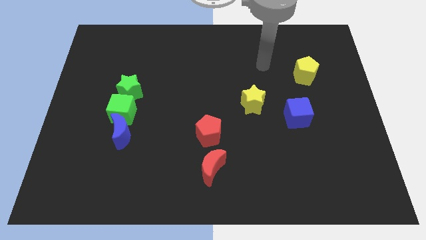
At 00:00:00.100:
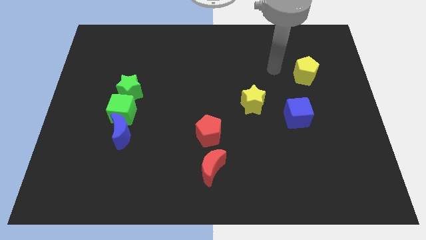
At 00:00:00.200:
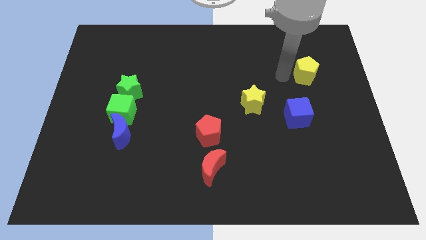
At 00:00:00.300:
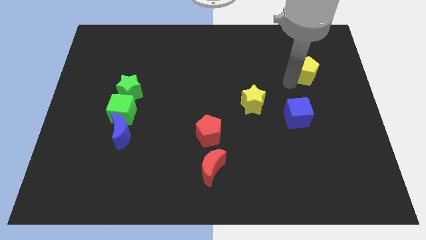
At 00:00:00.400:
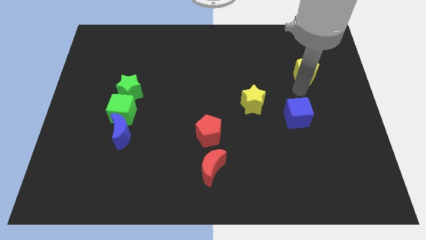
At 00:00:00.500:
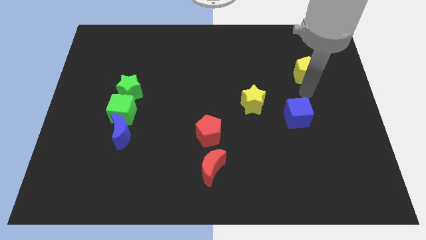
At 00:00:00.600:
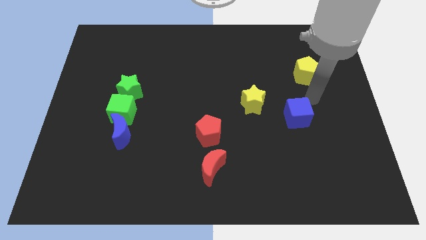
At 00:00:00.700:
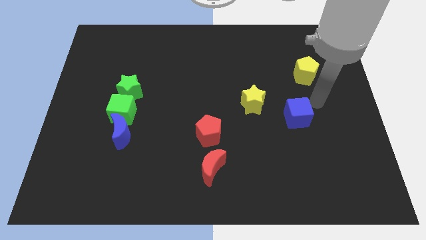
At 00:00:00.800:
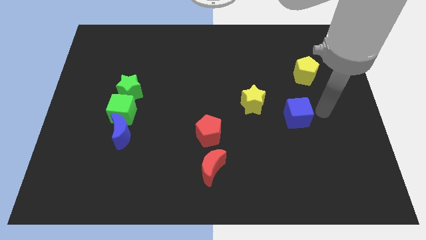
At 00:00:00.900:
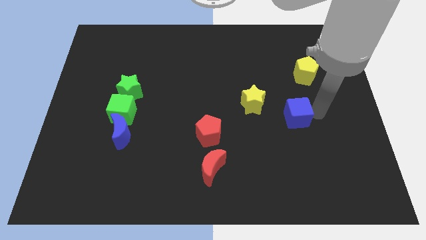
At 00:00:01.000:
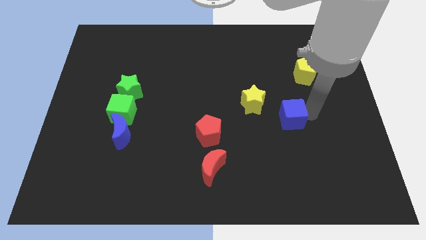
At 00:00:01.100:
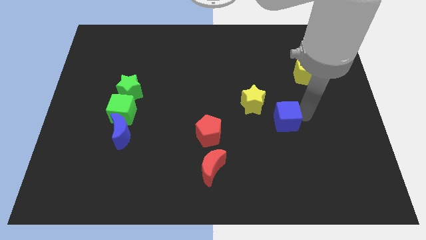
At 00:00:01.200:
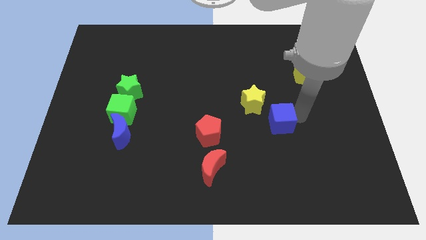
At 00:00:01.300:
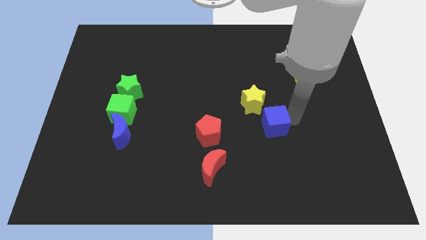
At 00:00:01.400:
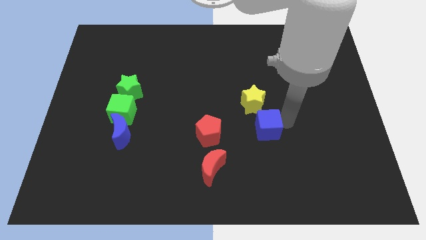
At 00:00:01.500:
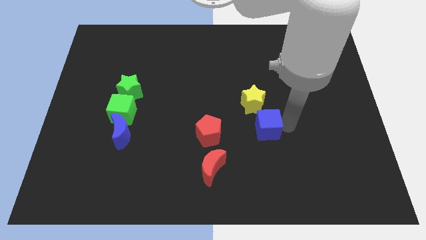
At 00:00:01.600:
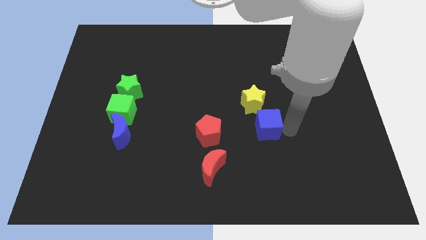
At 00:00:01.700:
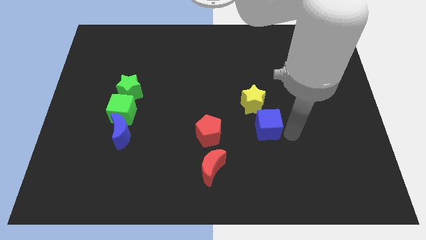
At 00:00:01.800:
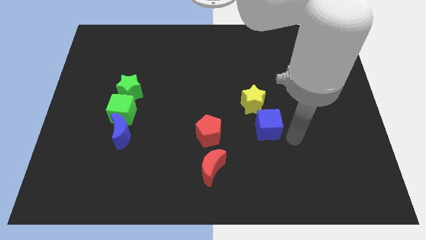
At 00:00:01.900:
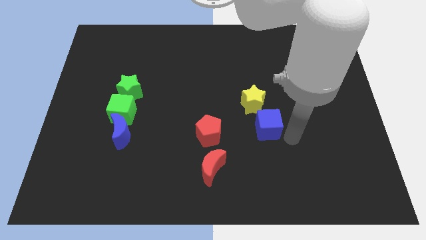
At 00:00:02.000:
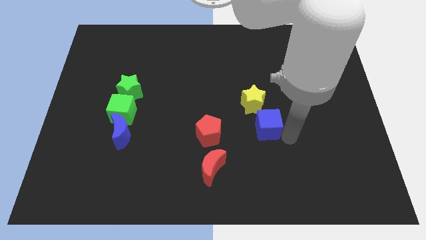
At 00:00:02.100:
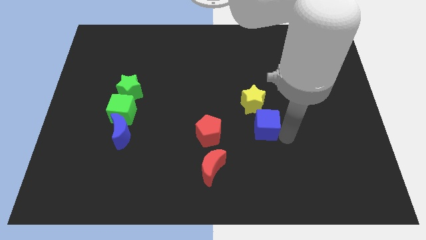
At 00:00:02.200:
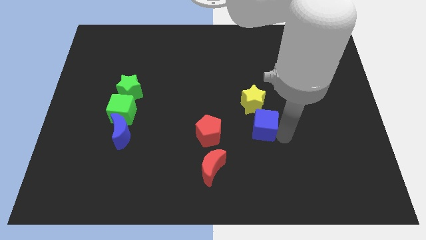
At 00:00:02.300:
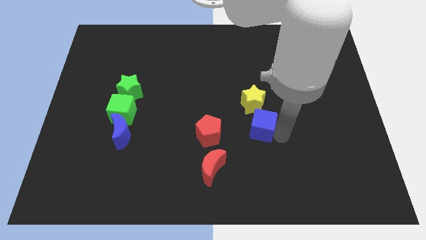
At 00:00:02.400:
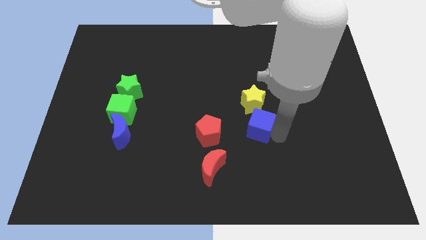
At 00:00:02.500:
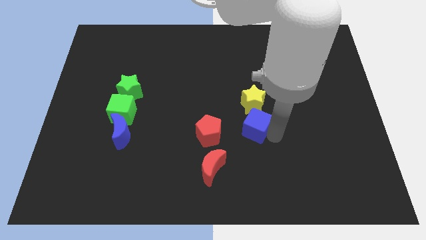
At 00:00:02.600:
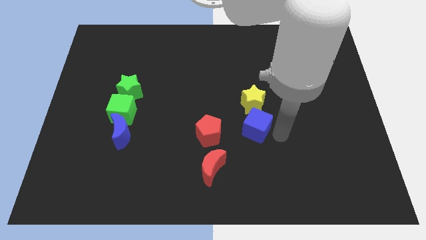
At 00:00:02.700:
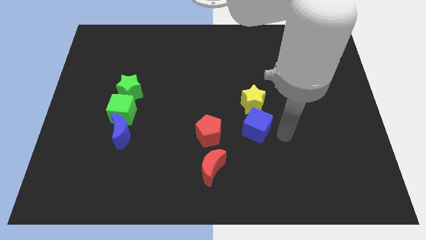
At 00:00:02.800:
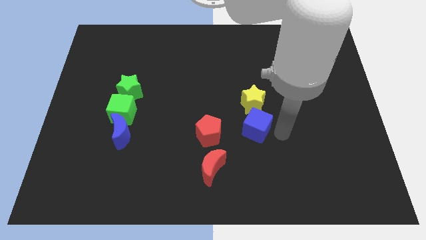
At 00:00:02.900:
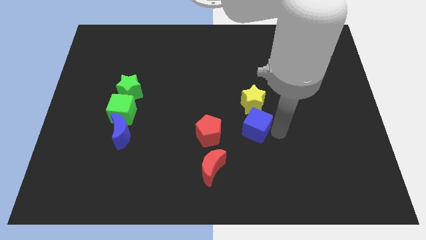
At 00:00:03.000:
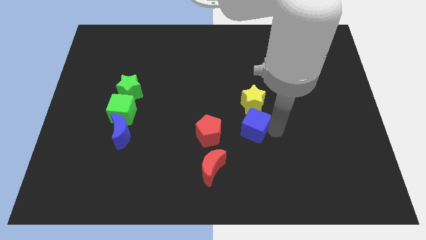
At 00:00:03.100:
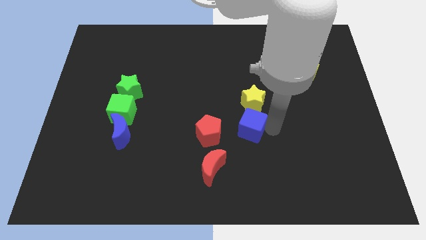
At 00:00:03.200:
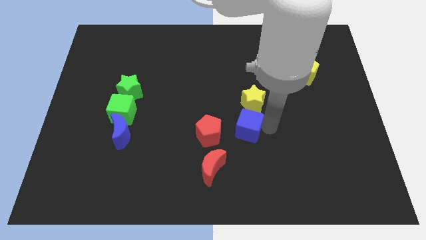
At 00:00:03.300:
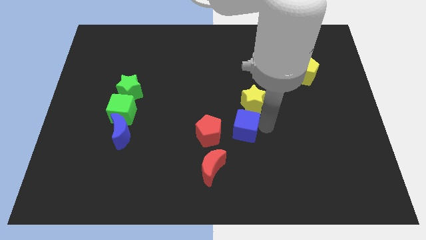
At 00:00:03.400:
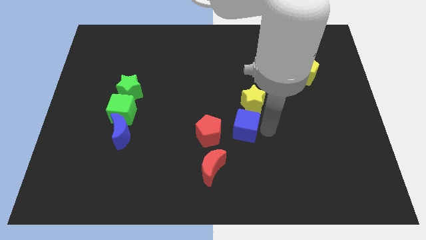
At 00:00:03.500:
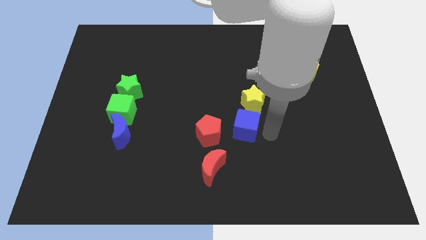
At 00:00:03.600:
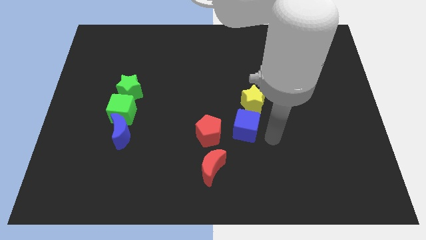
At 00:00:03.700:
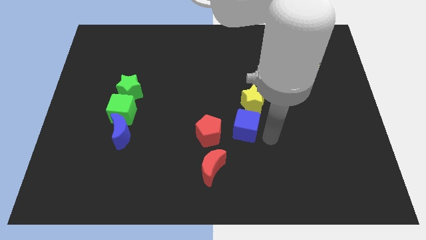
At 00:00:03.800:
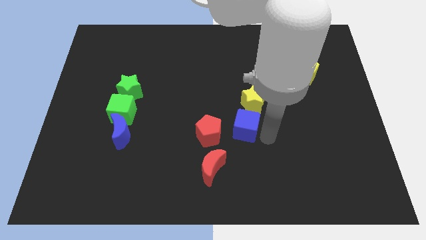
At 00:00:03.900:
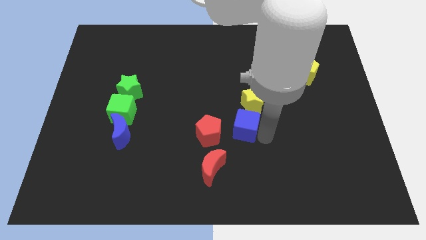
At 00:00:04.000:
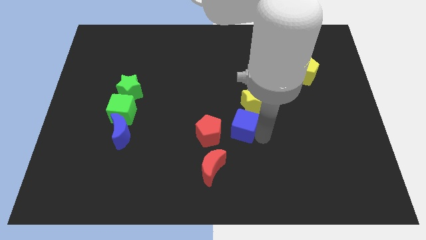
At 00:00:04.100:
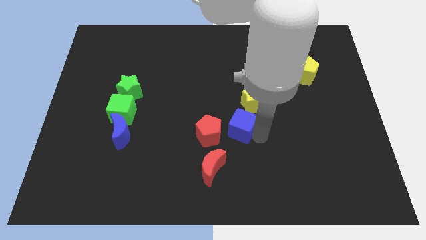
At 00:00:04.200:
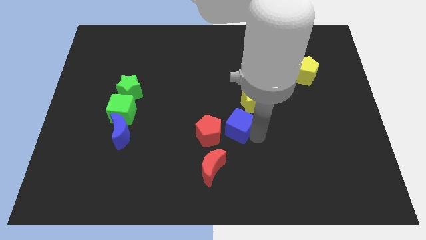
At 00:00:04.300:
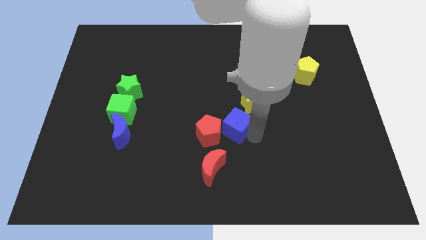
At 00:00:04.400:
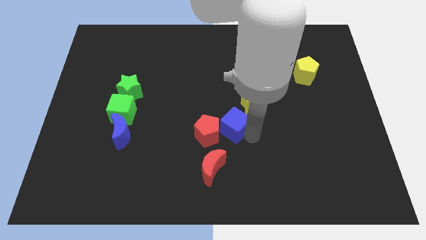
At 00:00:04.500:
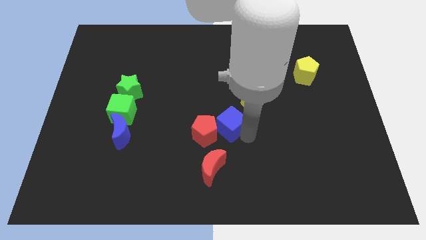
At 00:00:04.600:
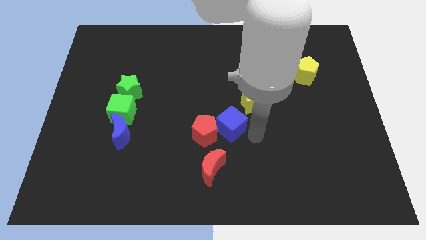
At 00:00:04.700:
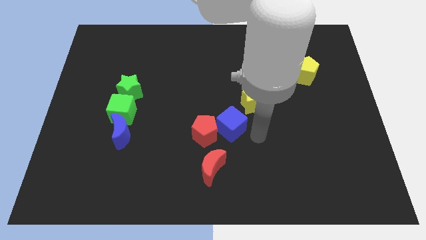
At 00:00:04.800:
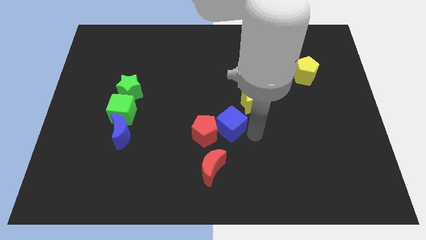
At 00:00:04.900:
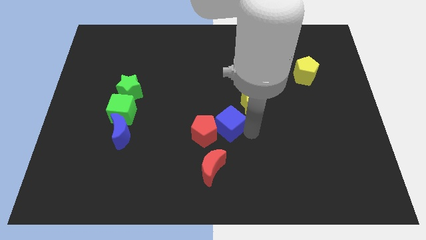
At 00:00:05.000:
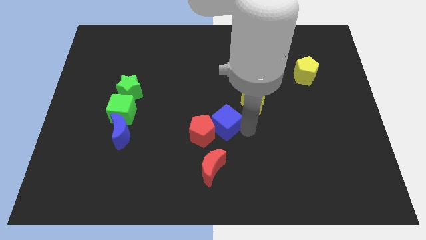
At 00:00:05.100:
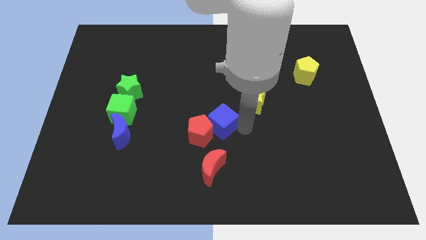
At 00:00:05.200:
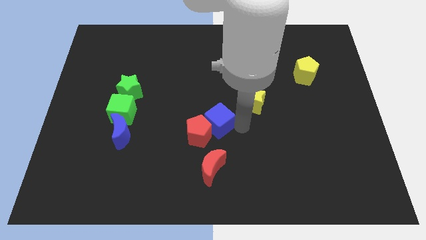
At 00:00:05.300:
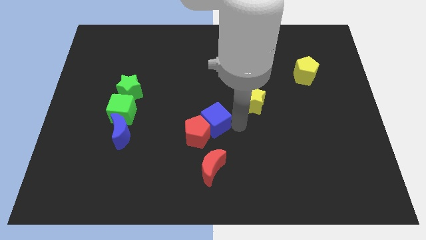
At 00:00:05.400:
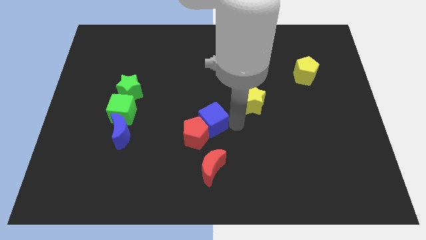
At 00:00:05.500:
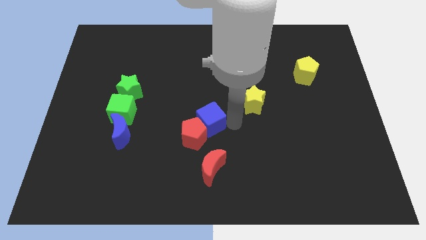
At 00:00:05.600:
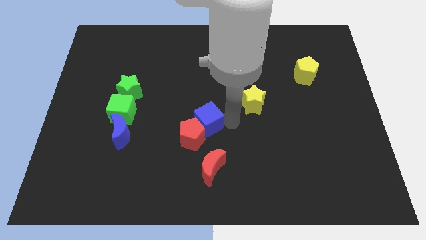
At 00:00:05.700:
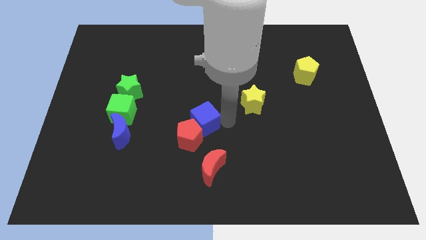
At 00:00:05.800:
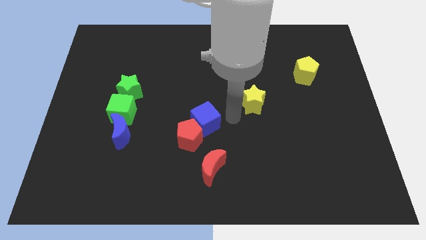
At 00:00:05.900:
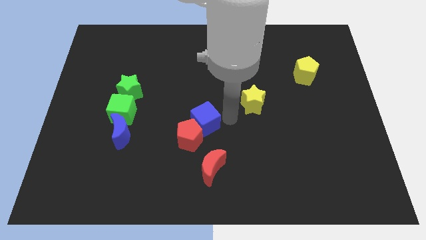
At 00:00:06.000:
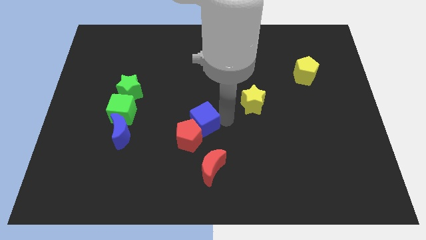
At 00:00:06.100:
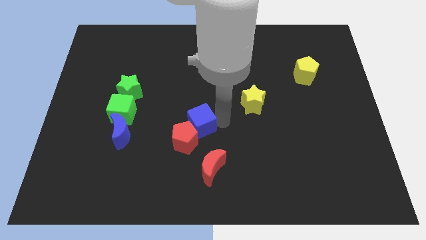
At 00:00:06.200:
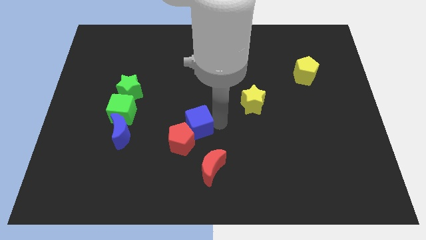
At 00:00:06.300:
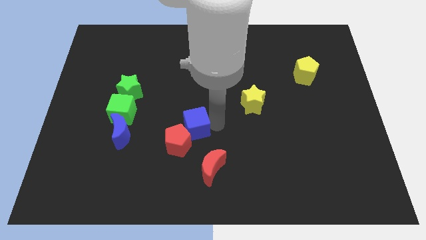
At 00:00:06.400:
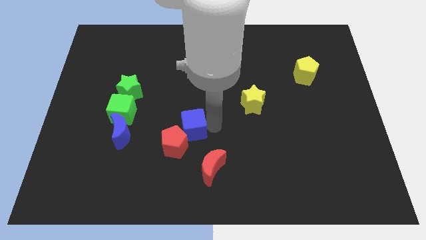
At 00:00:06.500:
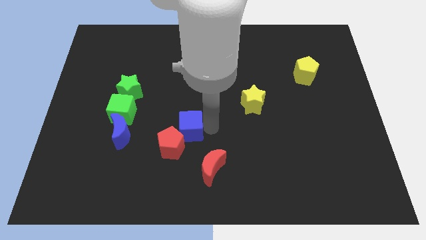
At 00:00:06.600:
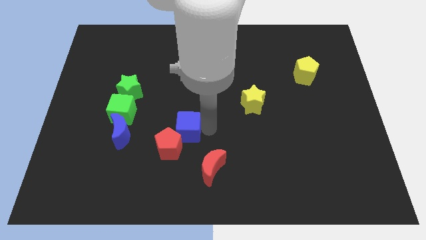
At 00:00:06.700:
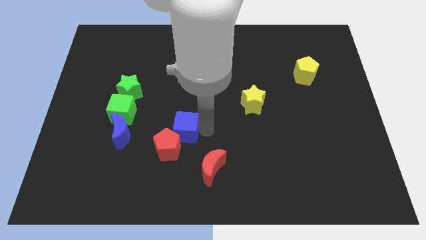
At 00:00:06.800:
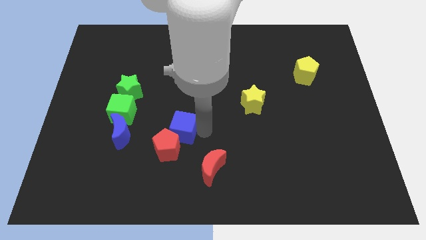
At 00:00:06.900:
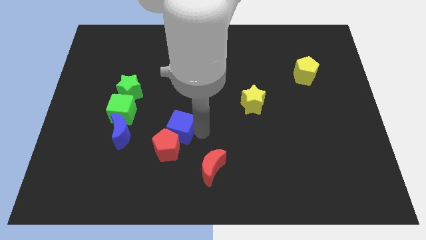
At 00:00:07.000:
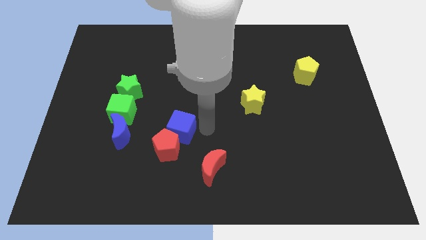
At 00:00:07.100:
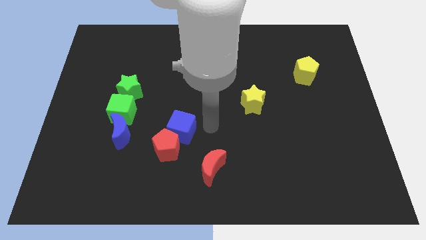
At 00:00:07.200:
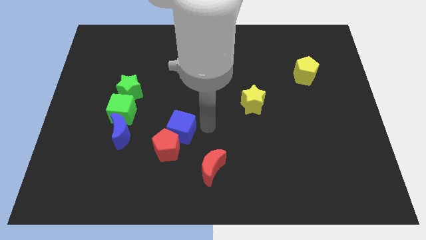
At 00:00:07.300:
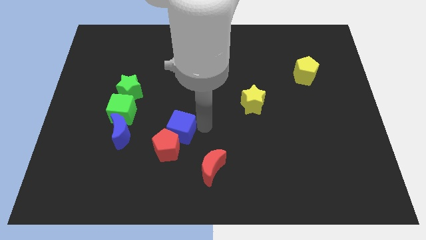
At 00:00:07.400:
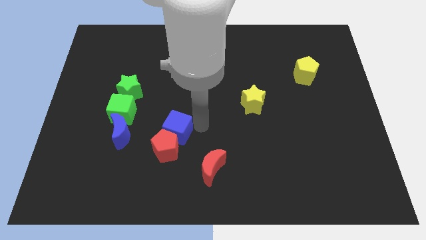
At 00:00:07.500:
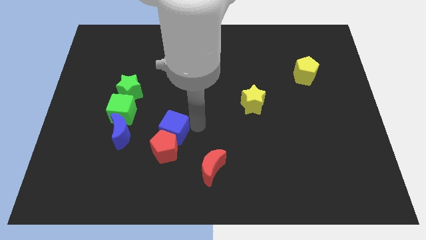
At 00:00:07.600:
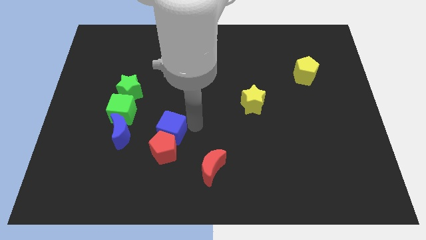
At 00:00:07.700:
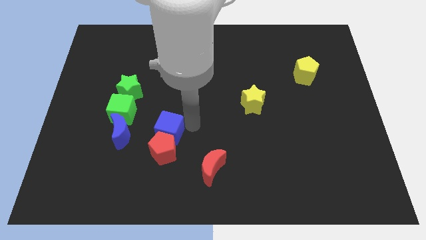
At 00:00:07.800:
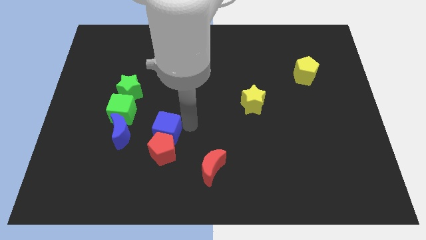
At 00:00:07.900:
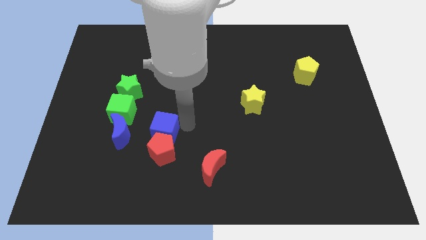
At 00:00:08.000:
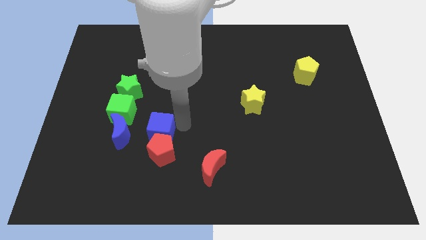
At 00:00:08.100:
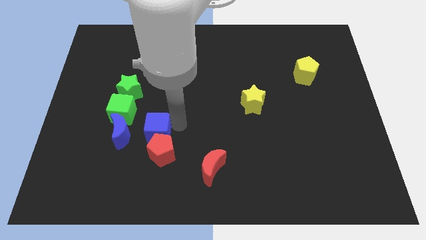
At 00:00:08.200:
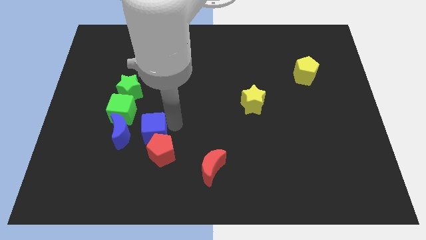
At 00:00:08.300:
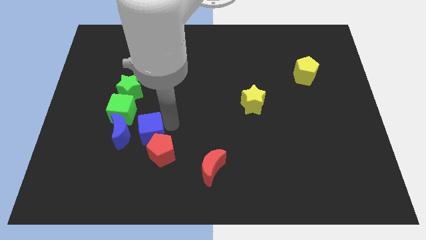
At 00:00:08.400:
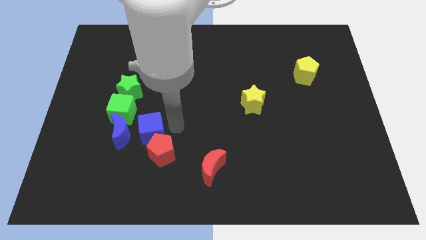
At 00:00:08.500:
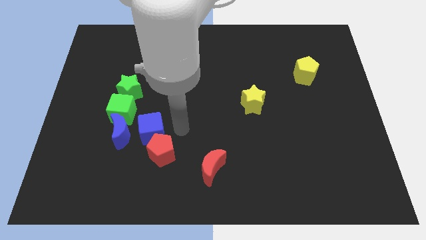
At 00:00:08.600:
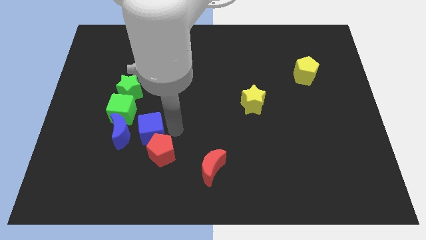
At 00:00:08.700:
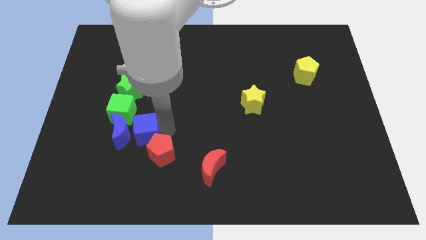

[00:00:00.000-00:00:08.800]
slide the blue cube close to the blue moon
